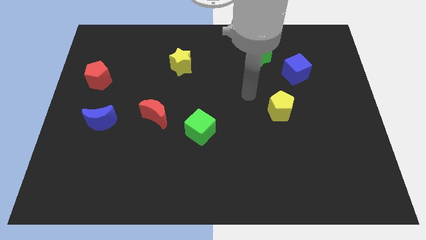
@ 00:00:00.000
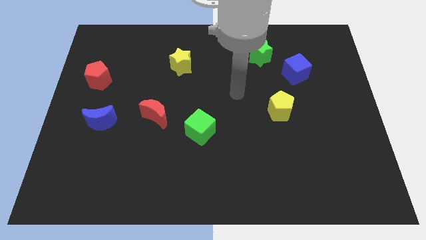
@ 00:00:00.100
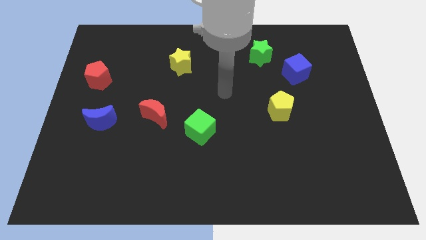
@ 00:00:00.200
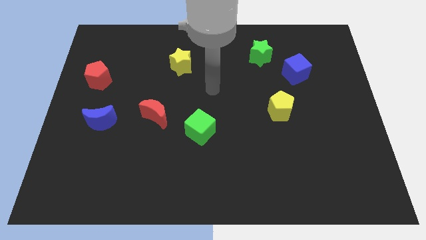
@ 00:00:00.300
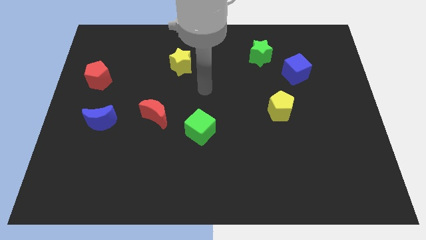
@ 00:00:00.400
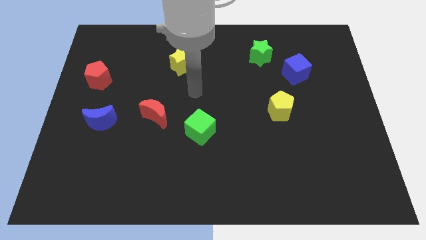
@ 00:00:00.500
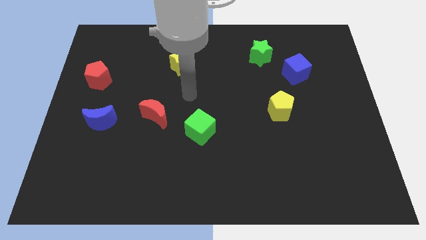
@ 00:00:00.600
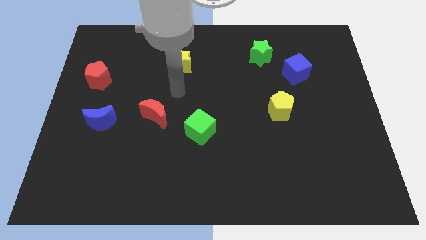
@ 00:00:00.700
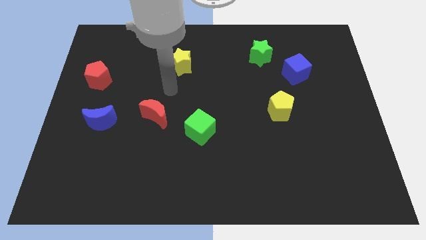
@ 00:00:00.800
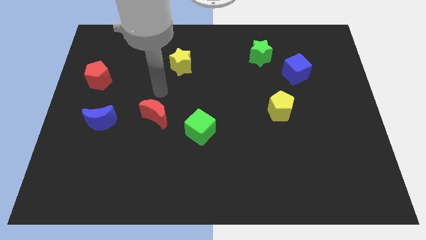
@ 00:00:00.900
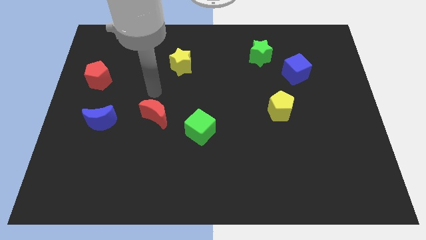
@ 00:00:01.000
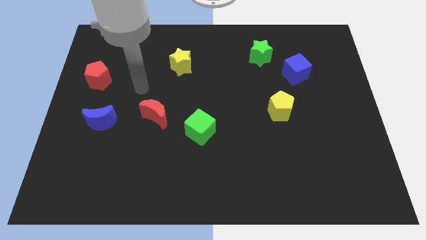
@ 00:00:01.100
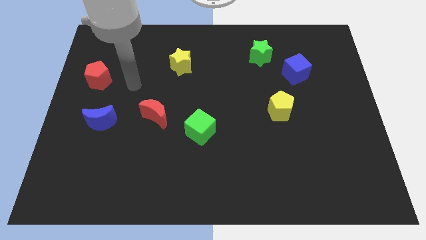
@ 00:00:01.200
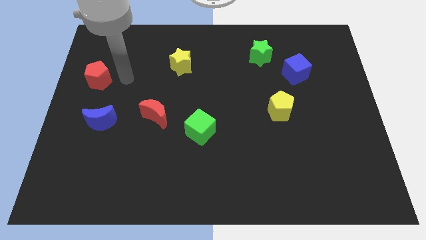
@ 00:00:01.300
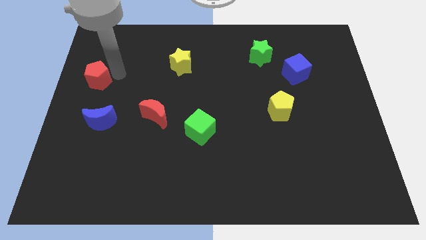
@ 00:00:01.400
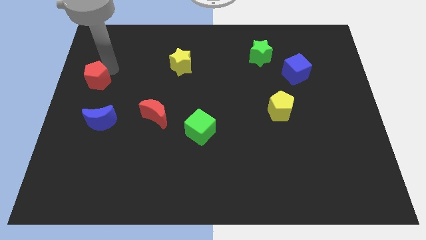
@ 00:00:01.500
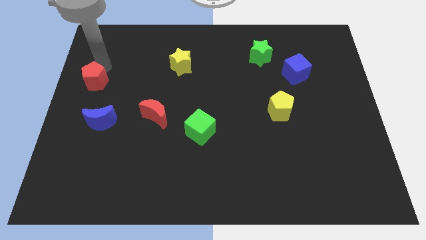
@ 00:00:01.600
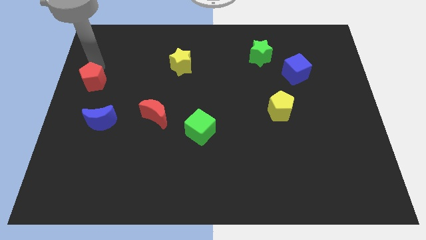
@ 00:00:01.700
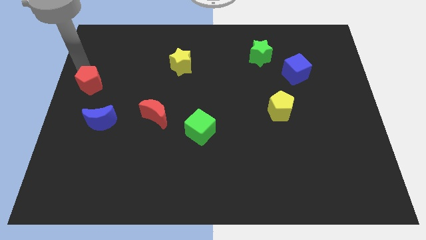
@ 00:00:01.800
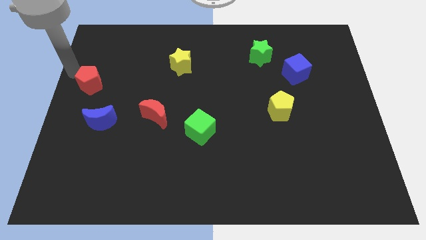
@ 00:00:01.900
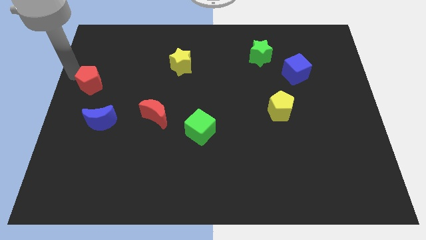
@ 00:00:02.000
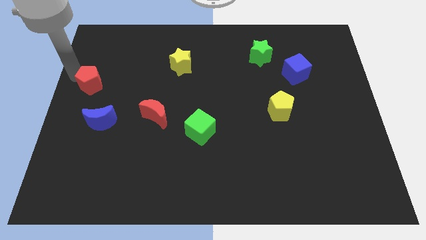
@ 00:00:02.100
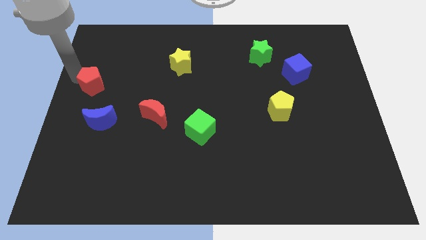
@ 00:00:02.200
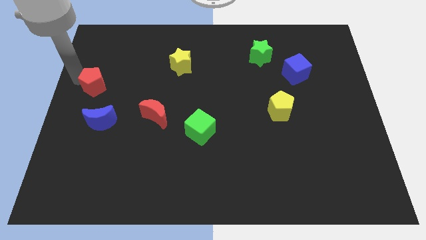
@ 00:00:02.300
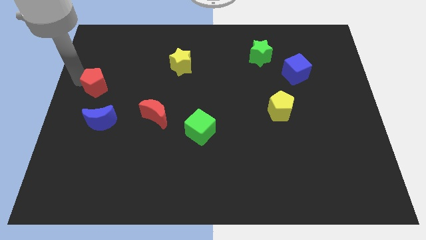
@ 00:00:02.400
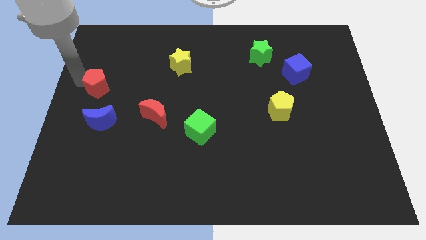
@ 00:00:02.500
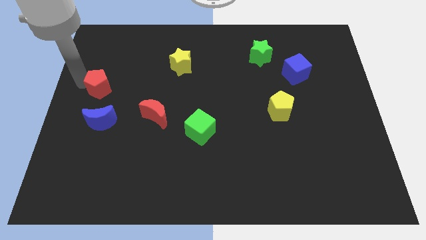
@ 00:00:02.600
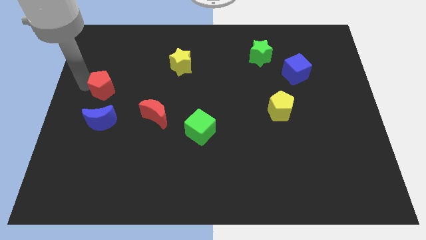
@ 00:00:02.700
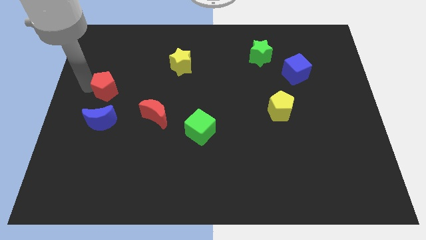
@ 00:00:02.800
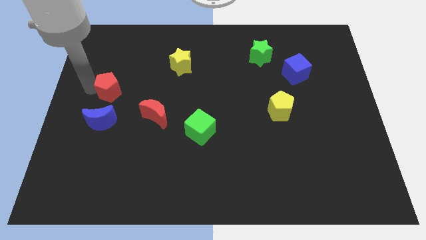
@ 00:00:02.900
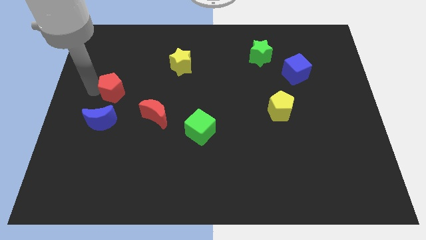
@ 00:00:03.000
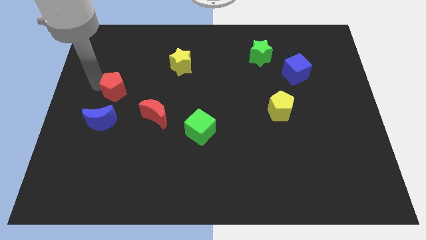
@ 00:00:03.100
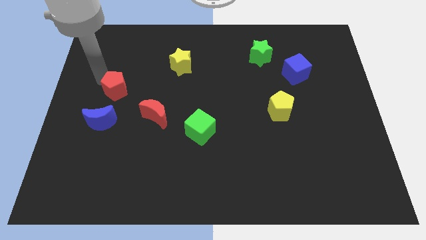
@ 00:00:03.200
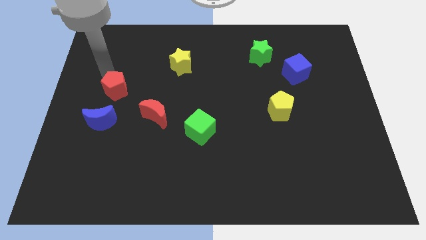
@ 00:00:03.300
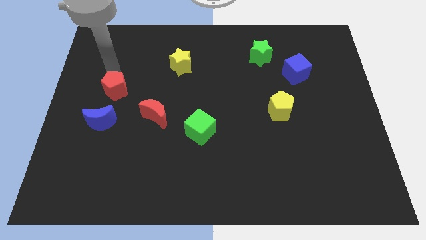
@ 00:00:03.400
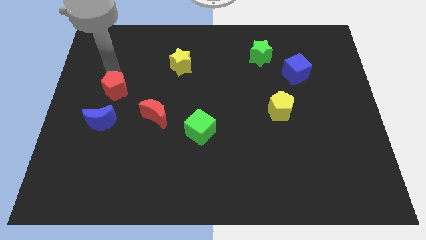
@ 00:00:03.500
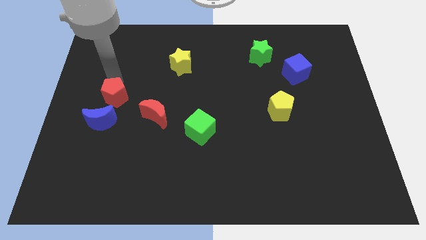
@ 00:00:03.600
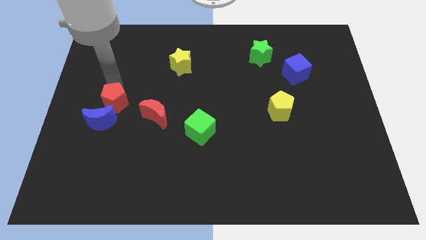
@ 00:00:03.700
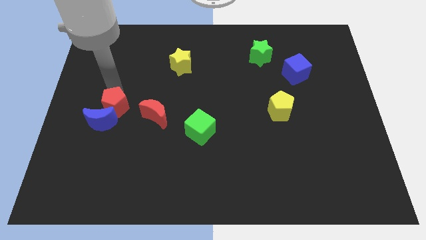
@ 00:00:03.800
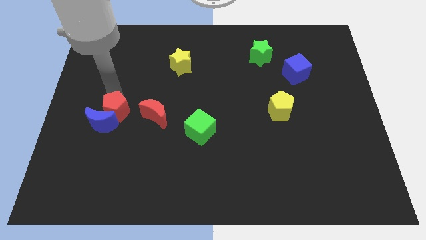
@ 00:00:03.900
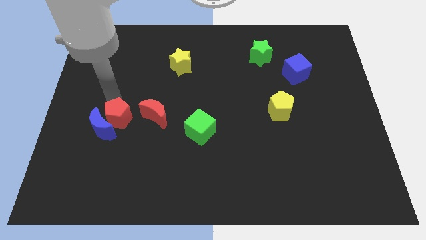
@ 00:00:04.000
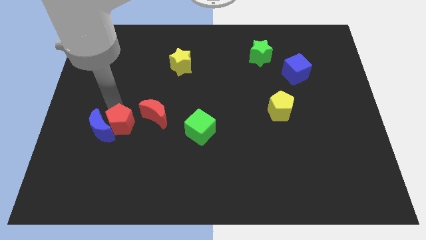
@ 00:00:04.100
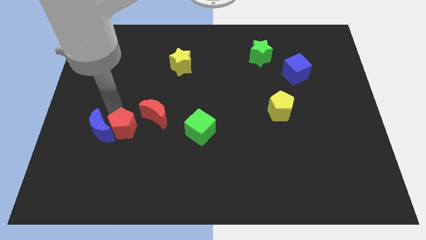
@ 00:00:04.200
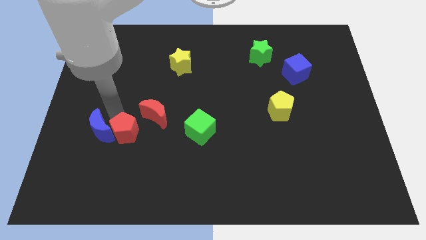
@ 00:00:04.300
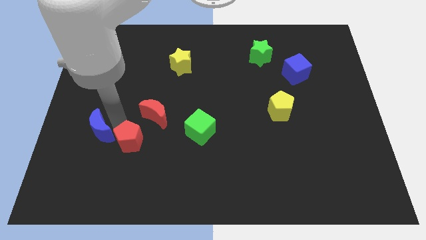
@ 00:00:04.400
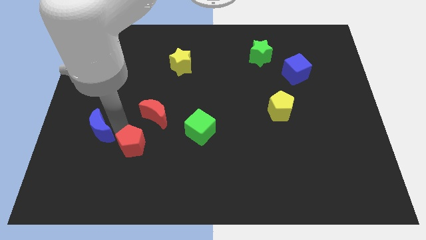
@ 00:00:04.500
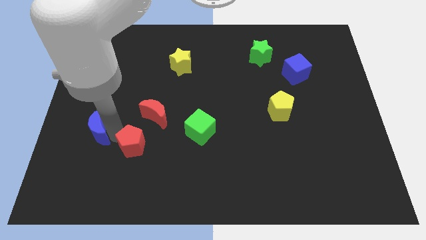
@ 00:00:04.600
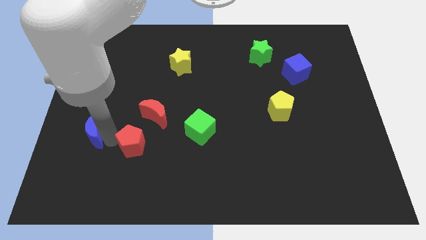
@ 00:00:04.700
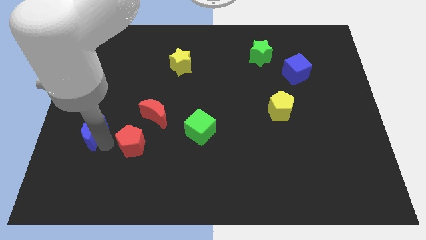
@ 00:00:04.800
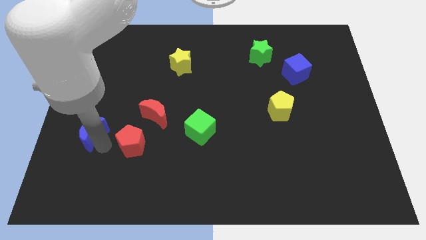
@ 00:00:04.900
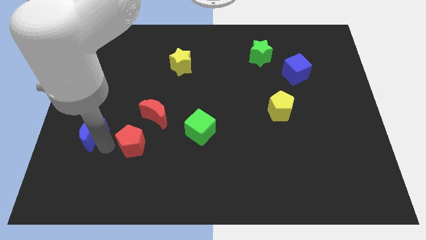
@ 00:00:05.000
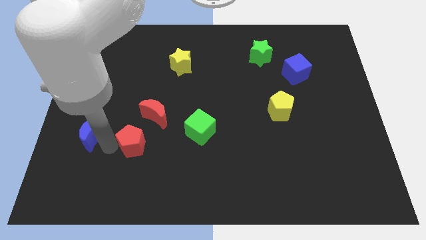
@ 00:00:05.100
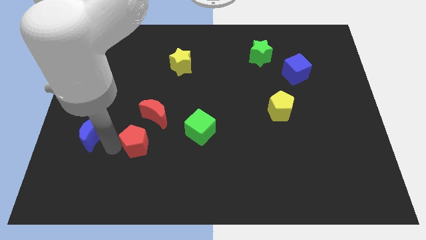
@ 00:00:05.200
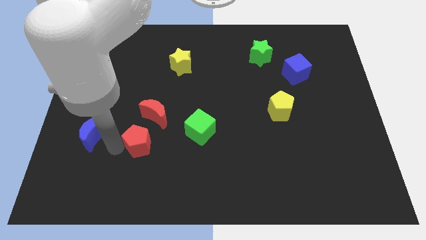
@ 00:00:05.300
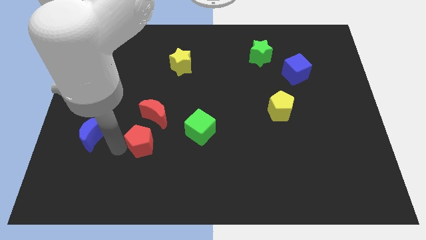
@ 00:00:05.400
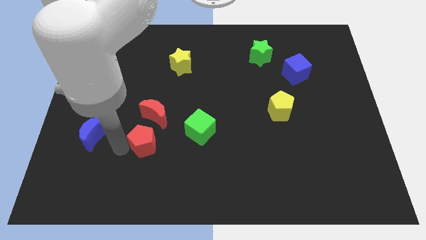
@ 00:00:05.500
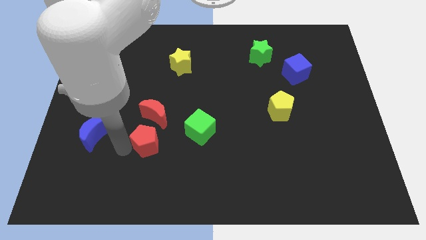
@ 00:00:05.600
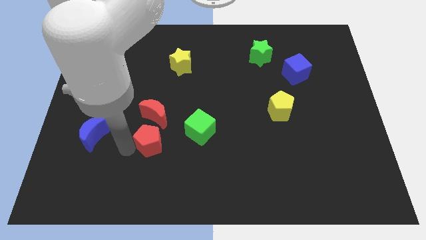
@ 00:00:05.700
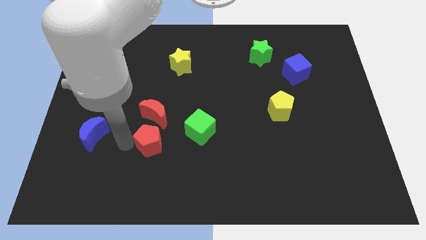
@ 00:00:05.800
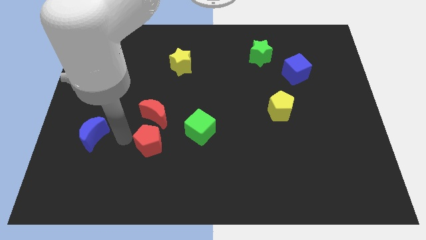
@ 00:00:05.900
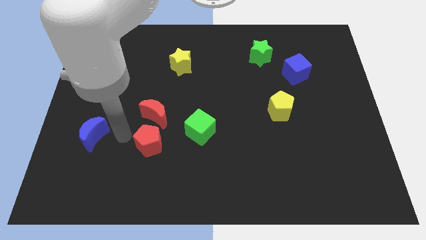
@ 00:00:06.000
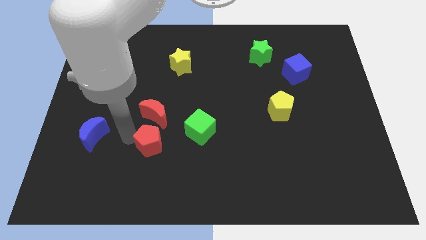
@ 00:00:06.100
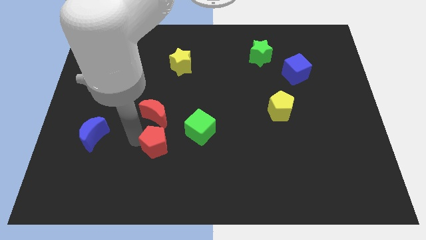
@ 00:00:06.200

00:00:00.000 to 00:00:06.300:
slide the red pentagon to the bottom left side of the green cube

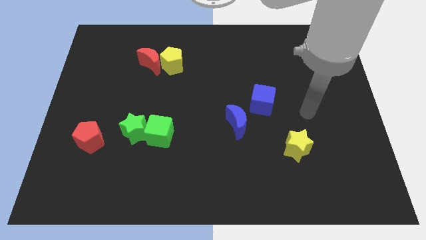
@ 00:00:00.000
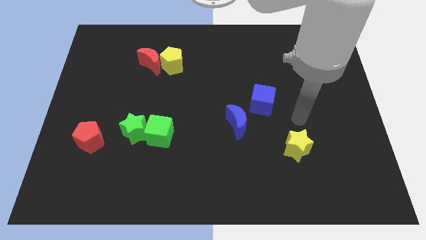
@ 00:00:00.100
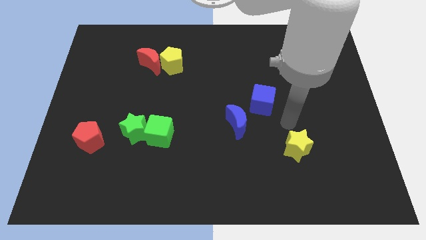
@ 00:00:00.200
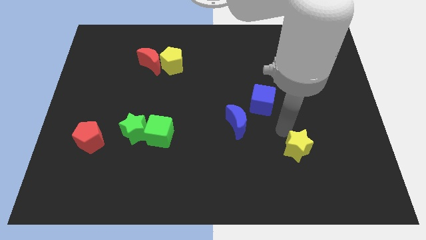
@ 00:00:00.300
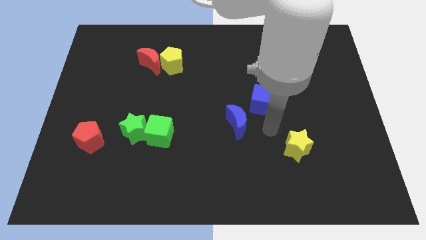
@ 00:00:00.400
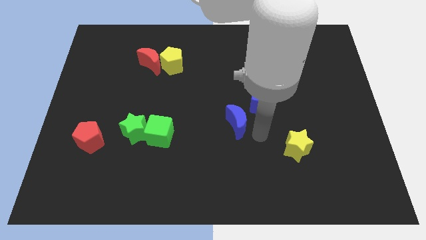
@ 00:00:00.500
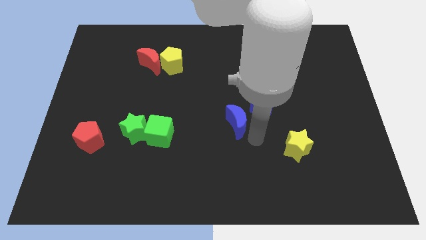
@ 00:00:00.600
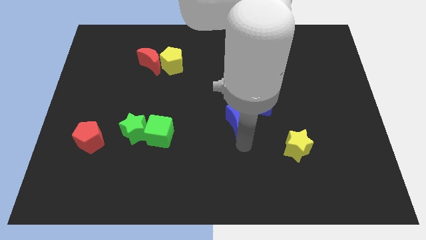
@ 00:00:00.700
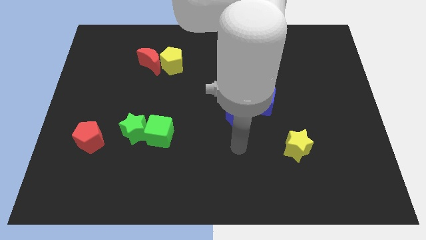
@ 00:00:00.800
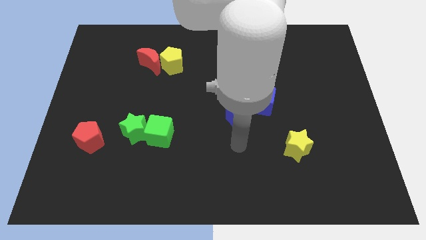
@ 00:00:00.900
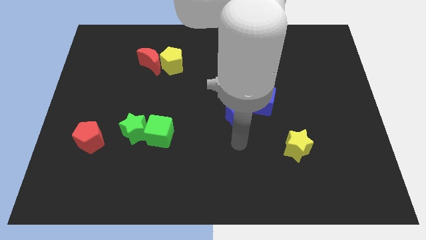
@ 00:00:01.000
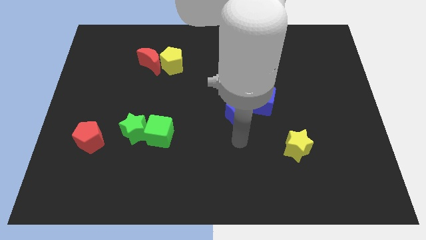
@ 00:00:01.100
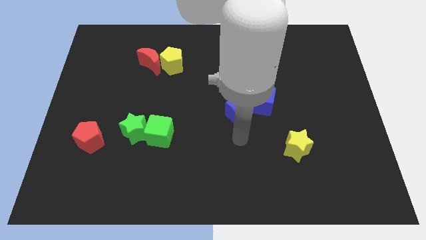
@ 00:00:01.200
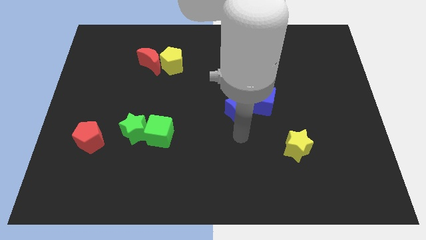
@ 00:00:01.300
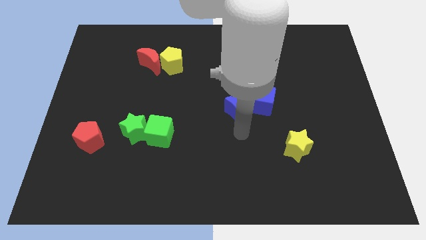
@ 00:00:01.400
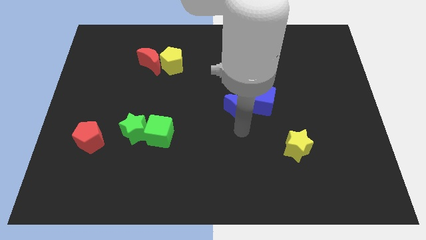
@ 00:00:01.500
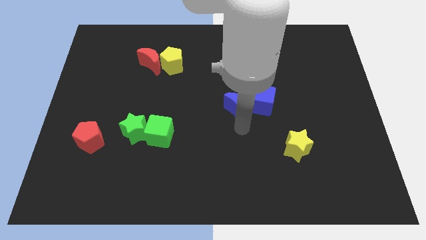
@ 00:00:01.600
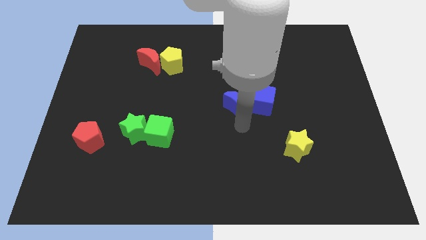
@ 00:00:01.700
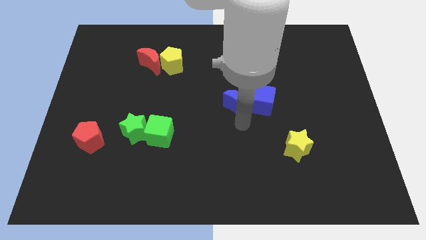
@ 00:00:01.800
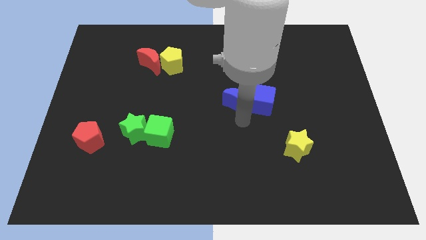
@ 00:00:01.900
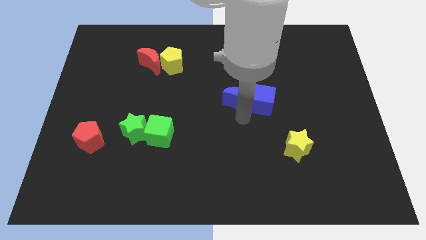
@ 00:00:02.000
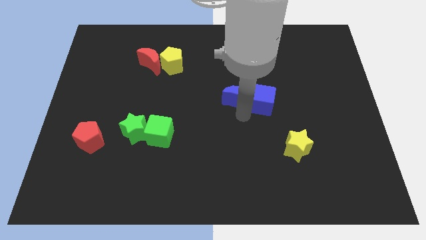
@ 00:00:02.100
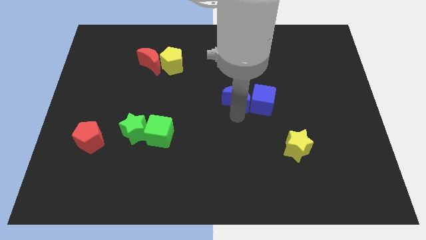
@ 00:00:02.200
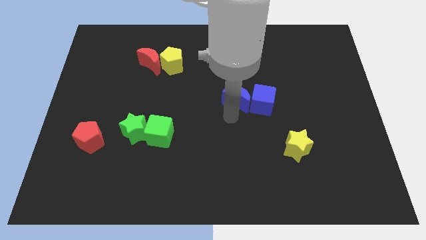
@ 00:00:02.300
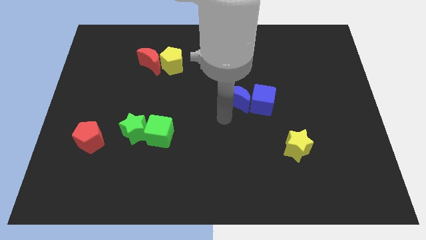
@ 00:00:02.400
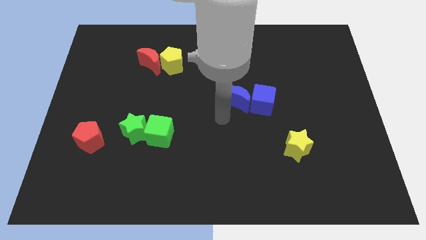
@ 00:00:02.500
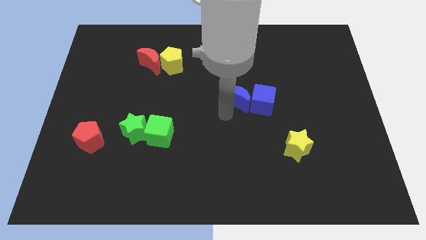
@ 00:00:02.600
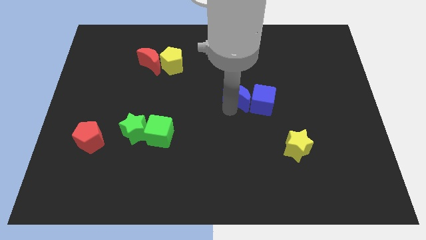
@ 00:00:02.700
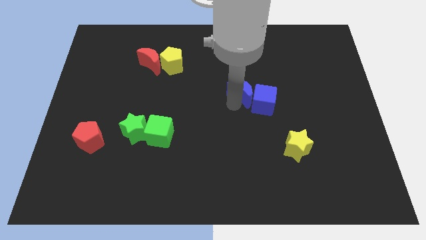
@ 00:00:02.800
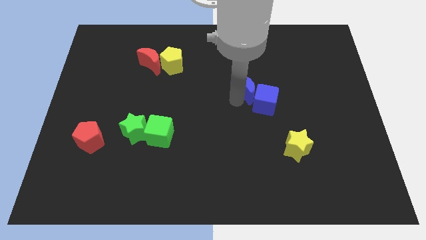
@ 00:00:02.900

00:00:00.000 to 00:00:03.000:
push the blue moon to the top of the blue cube
